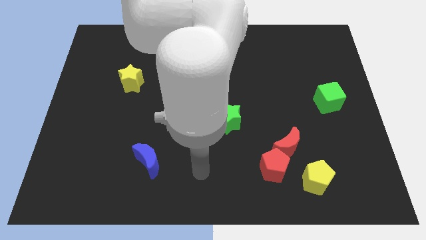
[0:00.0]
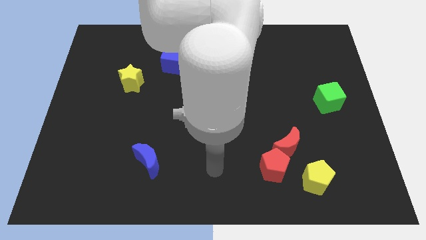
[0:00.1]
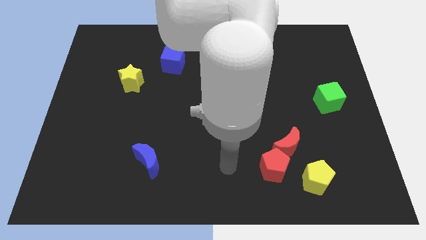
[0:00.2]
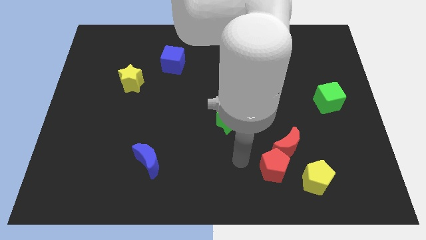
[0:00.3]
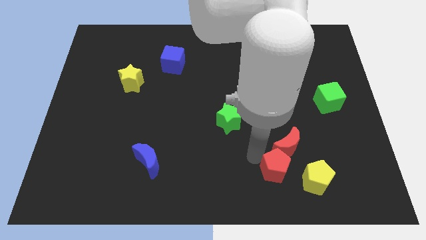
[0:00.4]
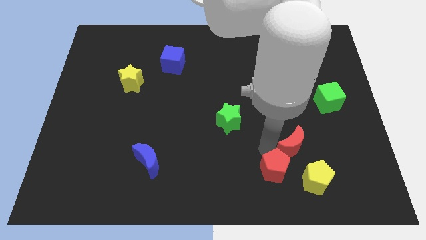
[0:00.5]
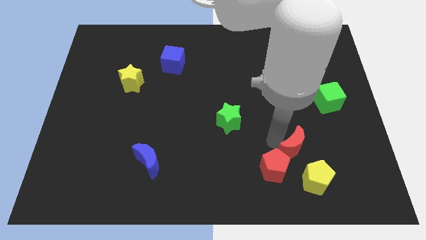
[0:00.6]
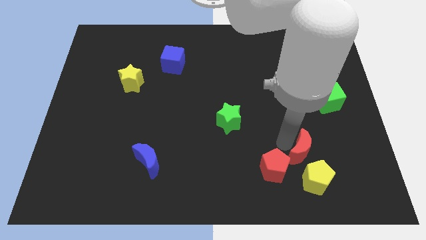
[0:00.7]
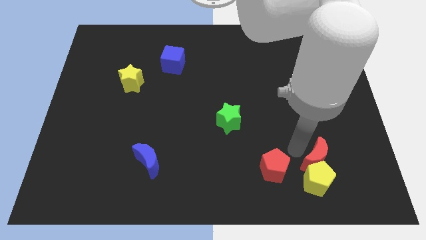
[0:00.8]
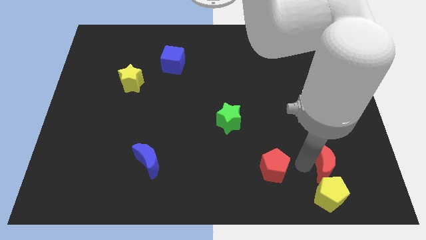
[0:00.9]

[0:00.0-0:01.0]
separate the red pentagon from the red moon and yellow pentagon

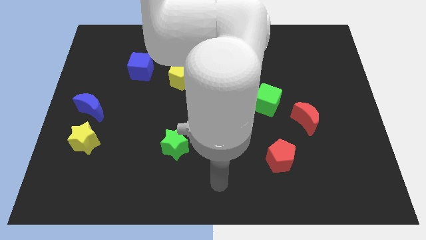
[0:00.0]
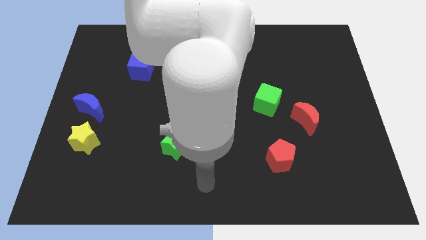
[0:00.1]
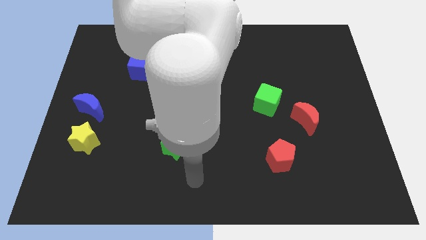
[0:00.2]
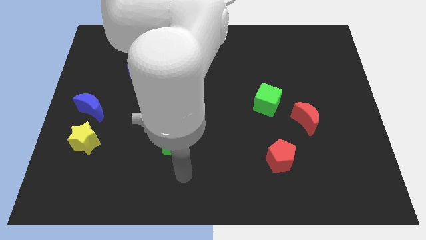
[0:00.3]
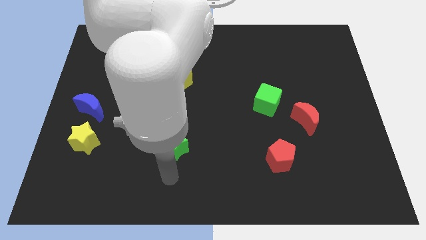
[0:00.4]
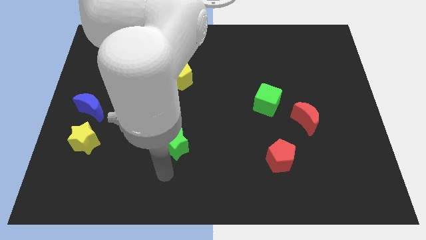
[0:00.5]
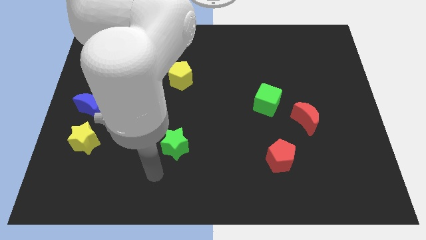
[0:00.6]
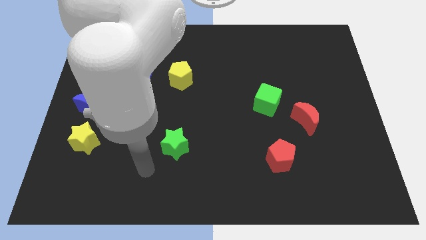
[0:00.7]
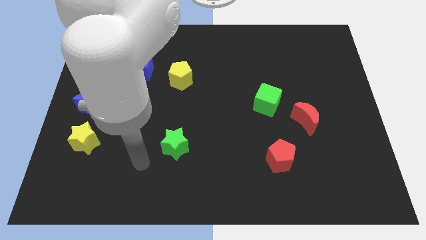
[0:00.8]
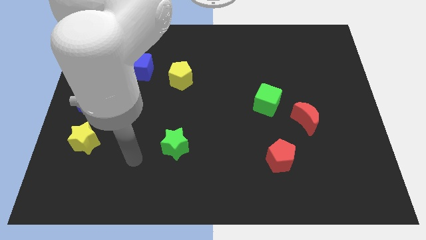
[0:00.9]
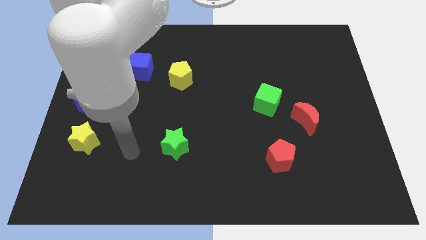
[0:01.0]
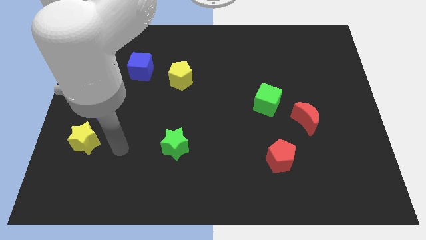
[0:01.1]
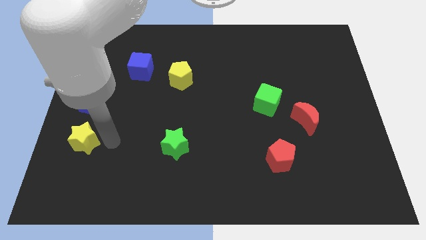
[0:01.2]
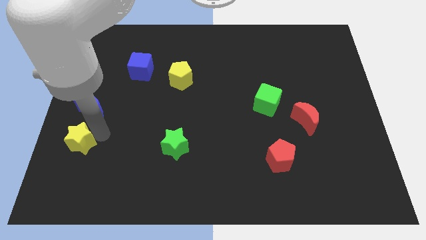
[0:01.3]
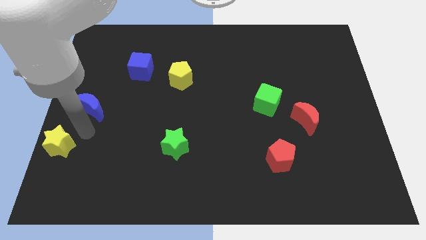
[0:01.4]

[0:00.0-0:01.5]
separate the blue moon from the yellow star

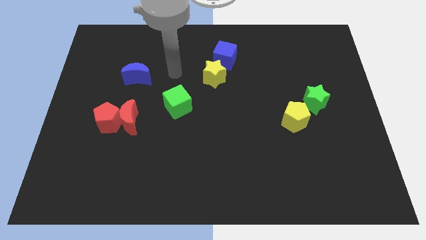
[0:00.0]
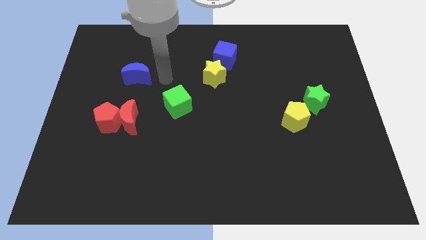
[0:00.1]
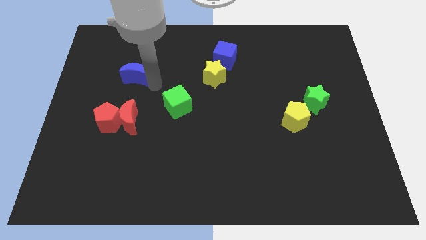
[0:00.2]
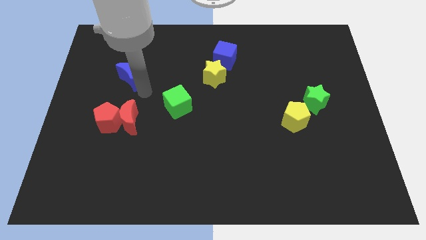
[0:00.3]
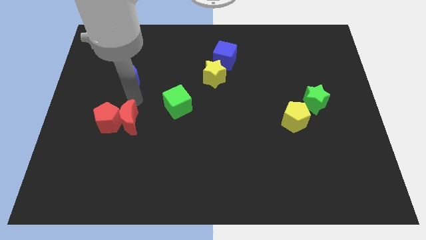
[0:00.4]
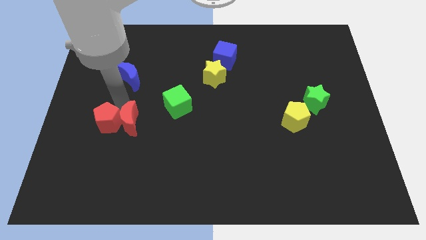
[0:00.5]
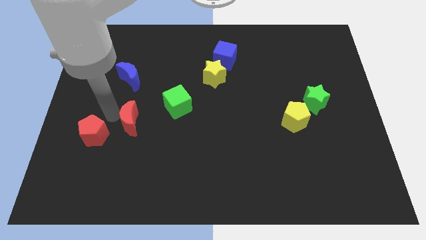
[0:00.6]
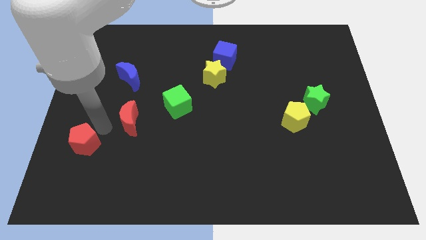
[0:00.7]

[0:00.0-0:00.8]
separate the red moon from the red pentagon

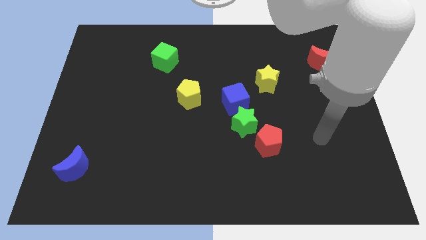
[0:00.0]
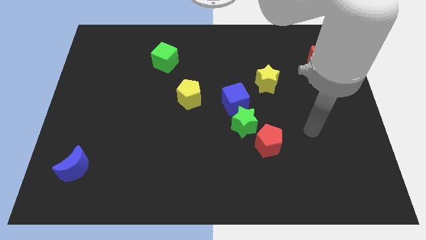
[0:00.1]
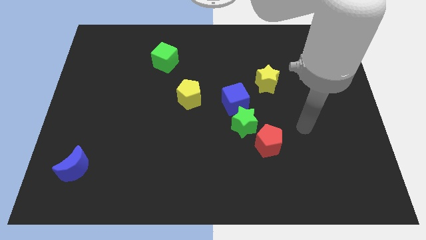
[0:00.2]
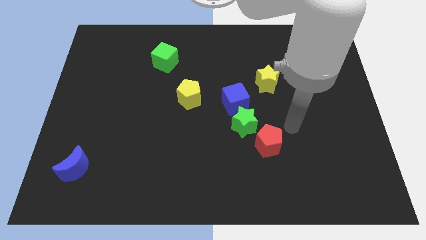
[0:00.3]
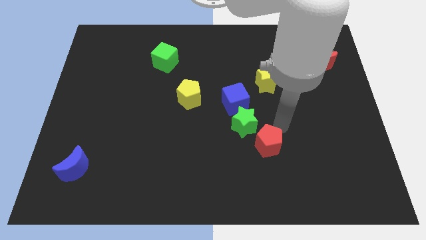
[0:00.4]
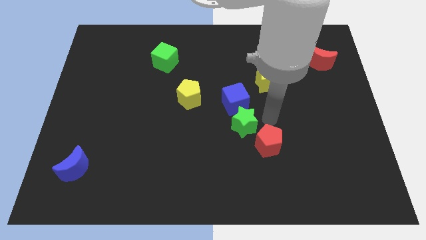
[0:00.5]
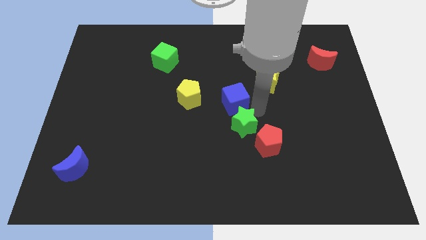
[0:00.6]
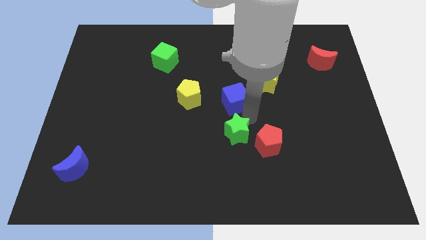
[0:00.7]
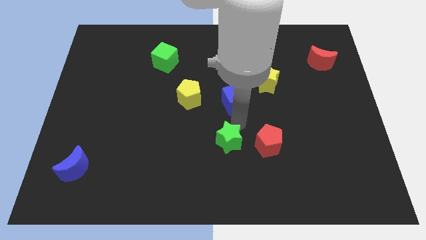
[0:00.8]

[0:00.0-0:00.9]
move the blue cube away from the green star

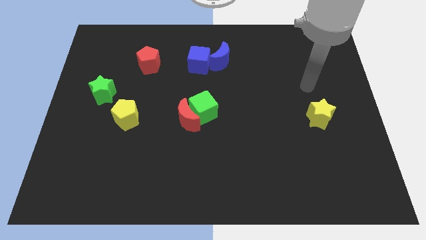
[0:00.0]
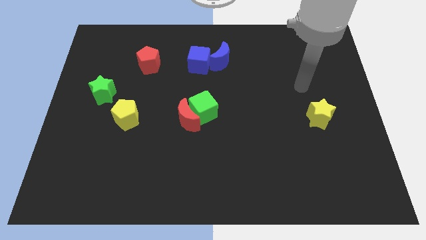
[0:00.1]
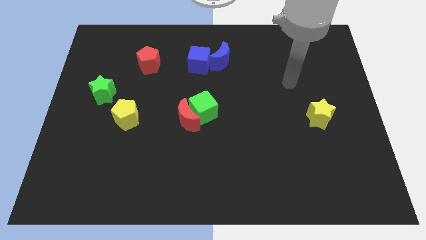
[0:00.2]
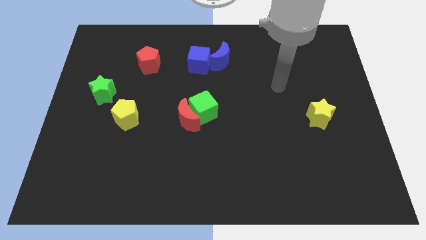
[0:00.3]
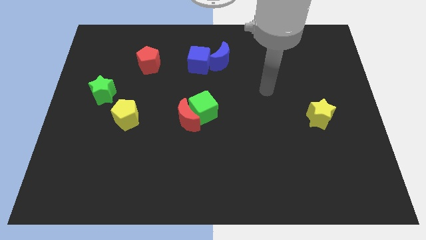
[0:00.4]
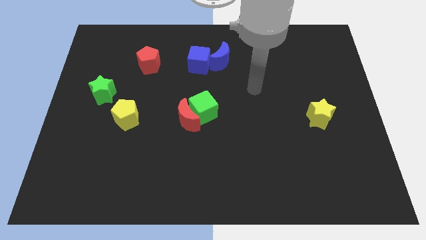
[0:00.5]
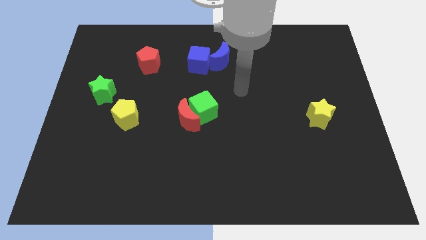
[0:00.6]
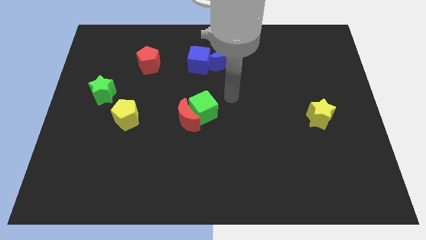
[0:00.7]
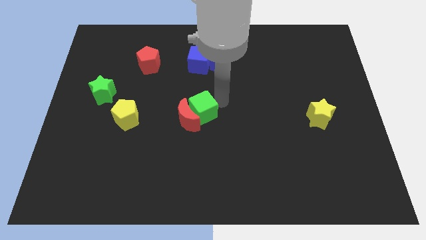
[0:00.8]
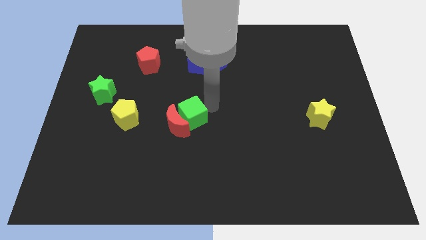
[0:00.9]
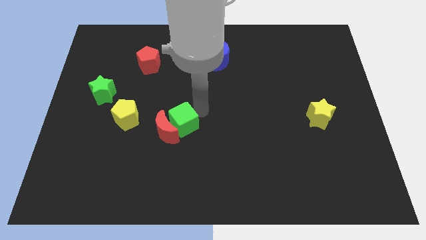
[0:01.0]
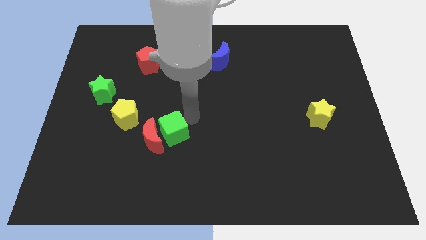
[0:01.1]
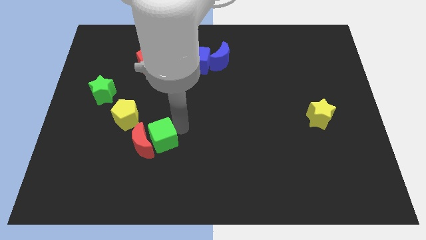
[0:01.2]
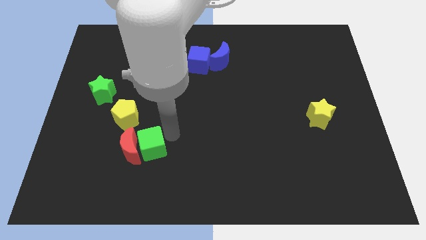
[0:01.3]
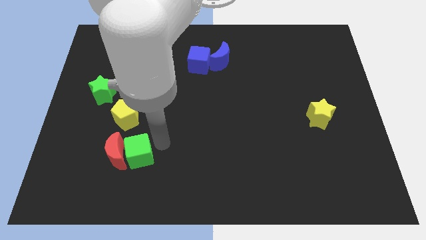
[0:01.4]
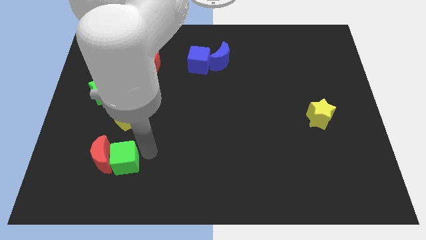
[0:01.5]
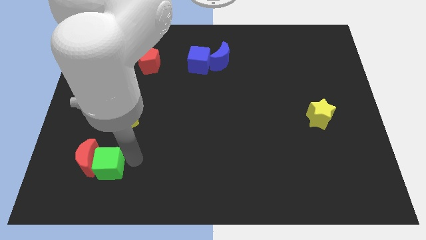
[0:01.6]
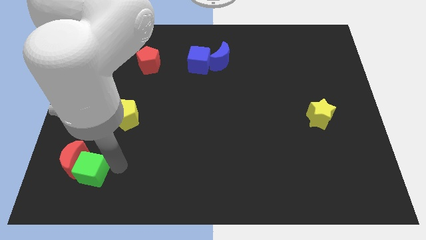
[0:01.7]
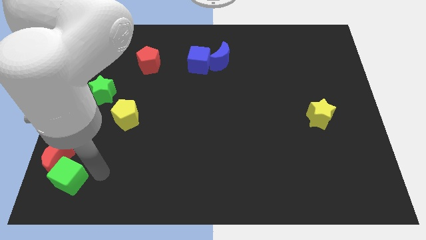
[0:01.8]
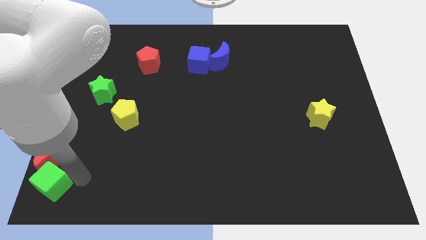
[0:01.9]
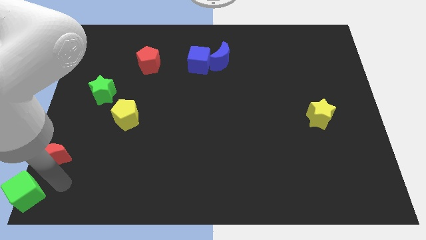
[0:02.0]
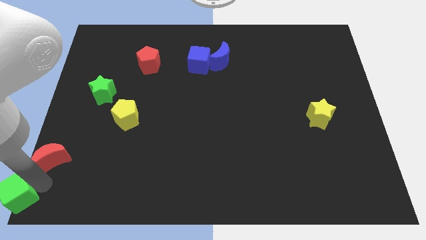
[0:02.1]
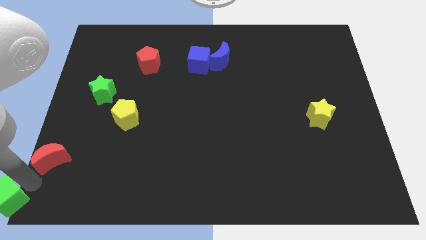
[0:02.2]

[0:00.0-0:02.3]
separate the red moon from the green cube

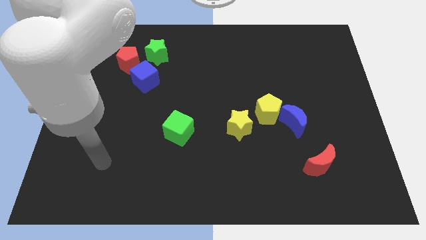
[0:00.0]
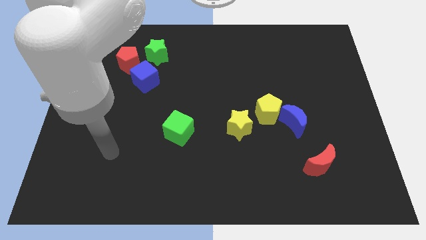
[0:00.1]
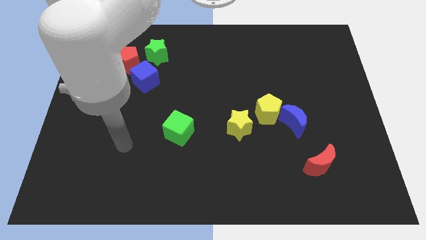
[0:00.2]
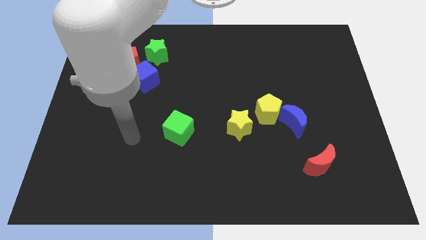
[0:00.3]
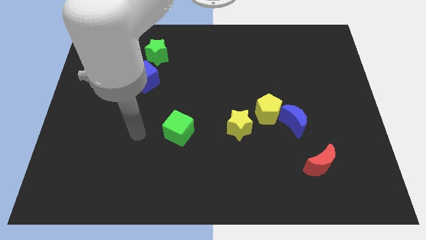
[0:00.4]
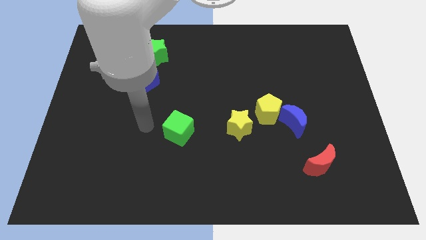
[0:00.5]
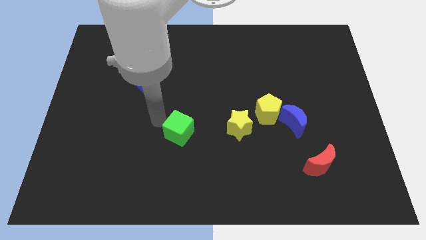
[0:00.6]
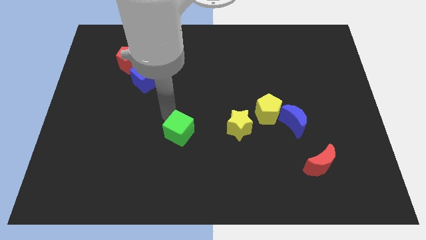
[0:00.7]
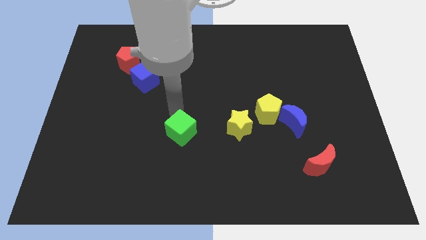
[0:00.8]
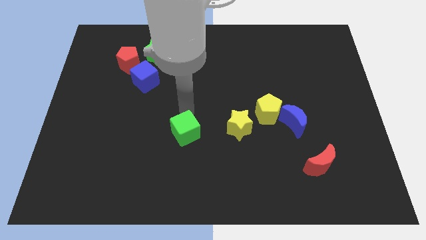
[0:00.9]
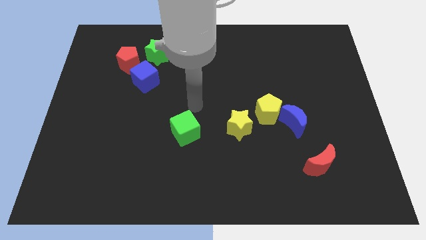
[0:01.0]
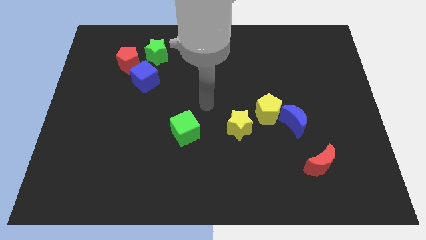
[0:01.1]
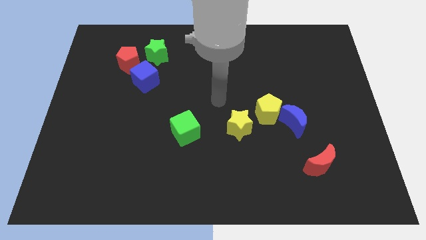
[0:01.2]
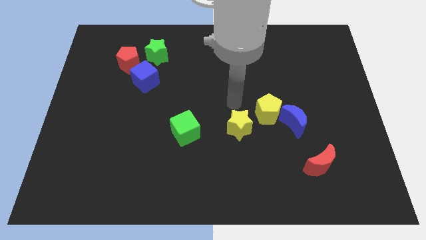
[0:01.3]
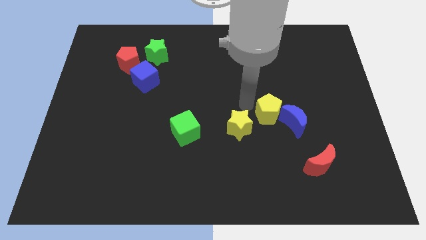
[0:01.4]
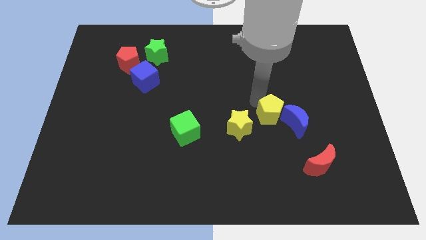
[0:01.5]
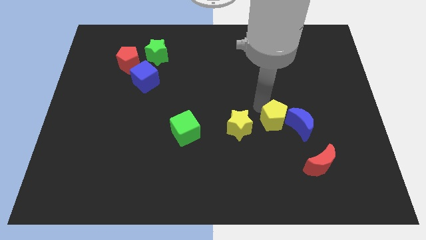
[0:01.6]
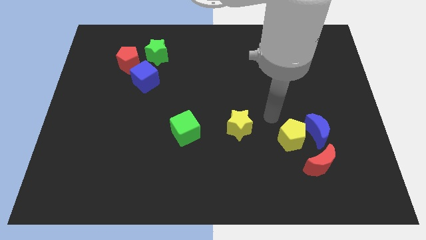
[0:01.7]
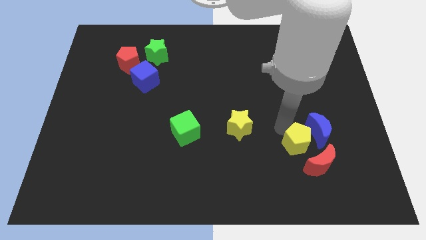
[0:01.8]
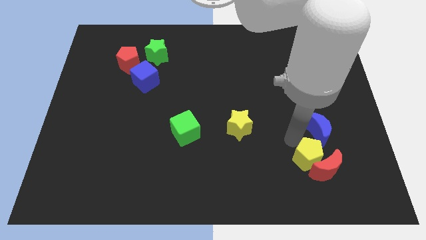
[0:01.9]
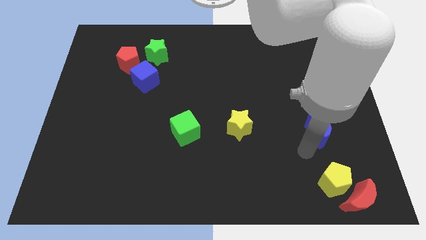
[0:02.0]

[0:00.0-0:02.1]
pull the blue moon apart from the yellow pentagon

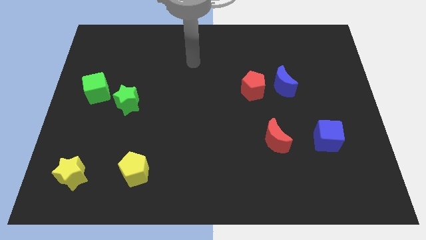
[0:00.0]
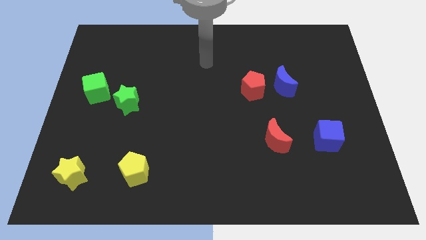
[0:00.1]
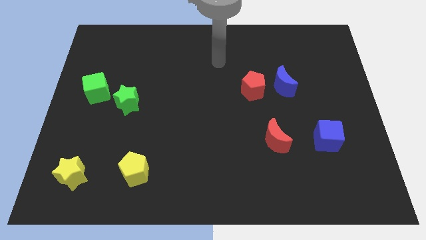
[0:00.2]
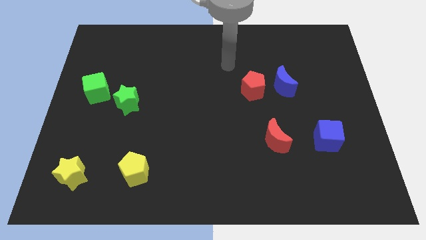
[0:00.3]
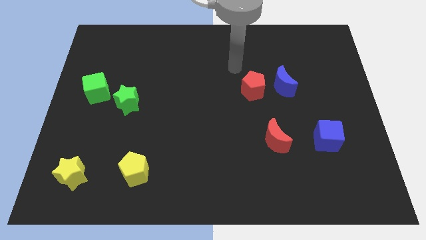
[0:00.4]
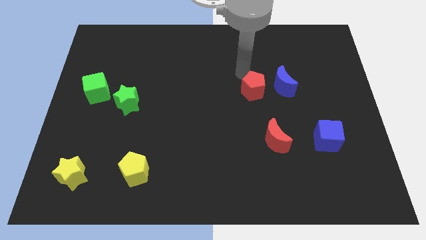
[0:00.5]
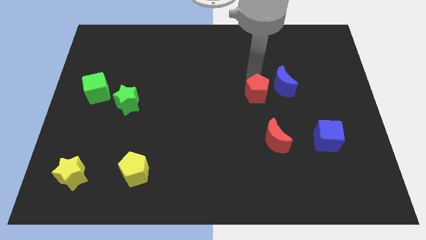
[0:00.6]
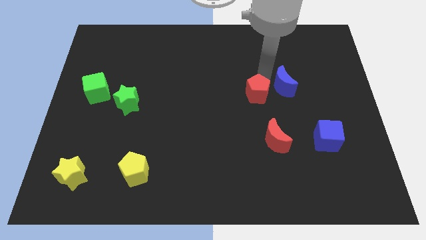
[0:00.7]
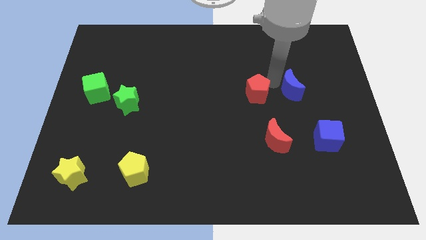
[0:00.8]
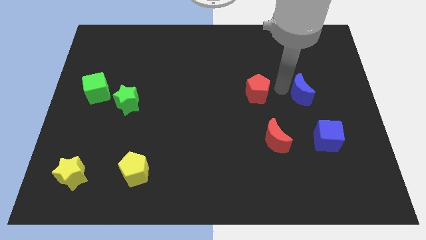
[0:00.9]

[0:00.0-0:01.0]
move the red pentagon away from the blue moon
